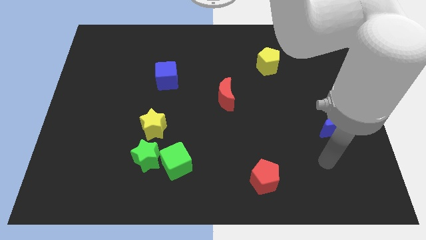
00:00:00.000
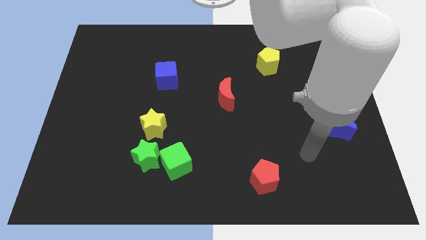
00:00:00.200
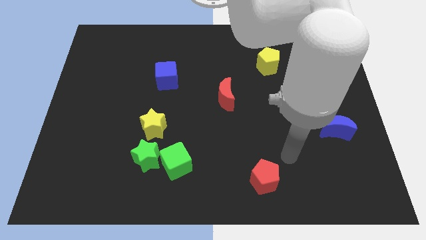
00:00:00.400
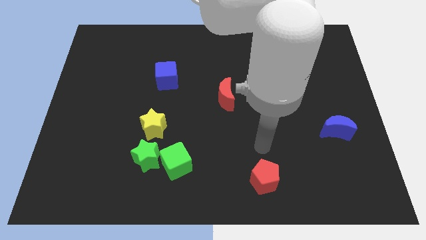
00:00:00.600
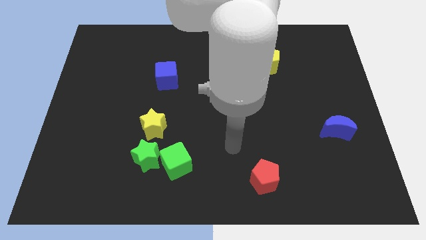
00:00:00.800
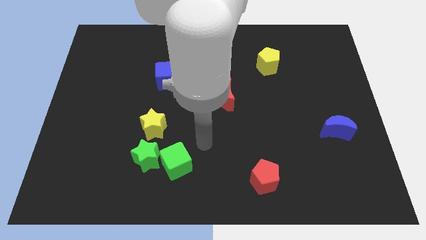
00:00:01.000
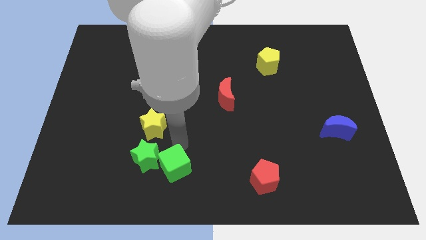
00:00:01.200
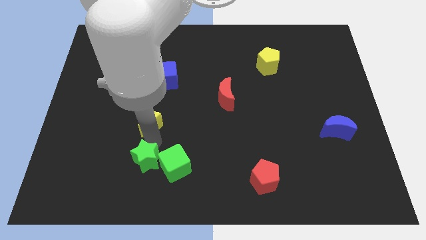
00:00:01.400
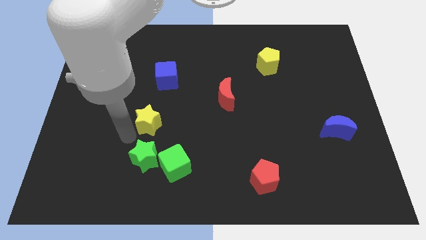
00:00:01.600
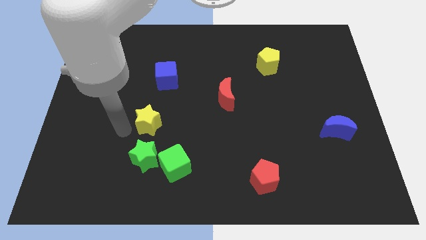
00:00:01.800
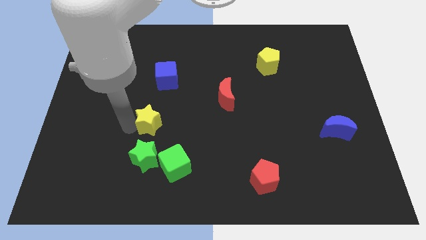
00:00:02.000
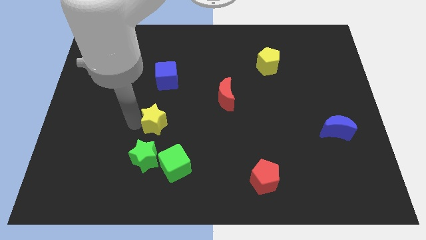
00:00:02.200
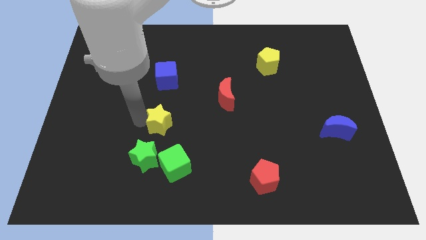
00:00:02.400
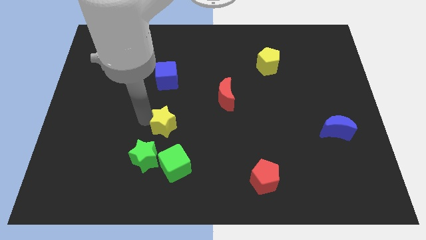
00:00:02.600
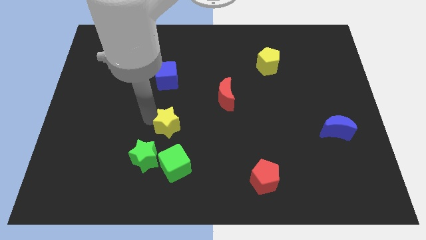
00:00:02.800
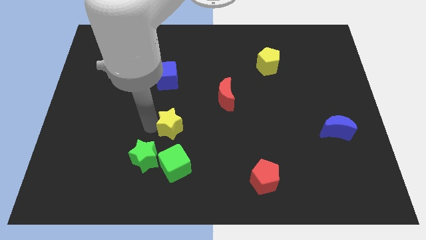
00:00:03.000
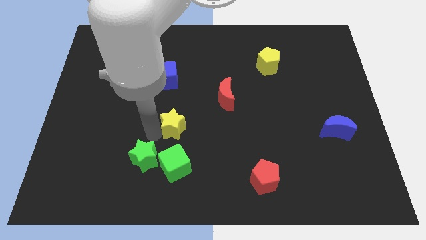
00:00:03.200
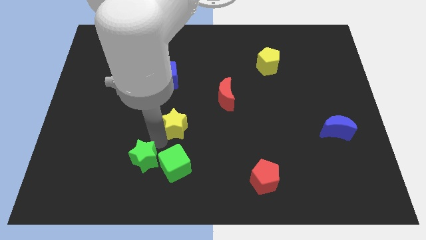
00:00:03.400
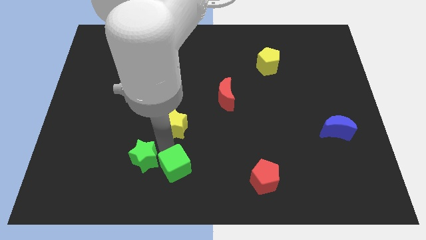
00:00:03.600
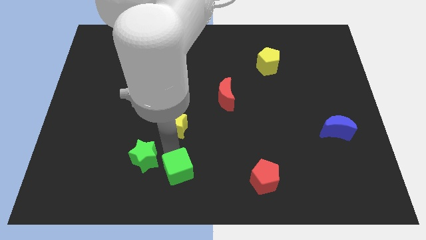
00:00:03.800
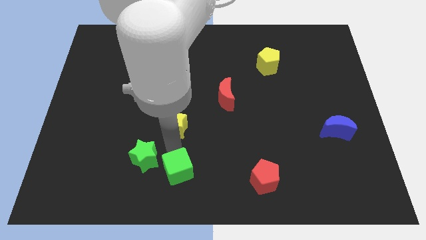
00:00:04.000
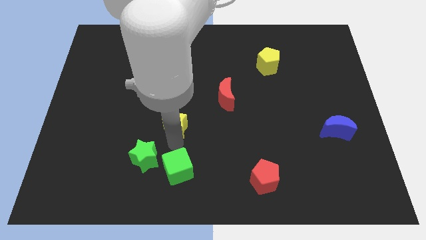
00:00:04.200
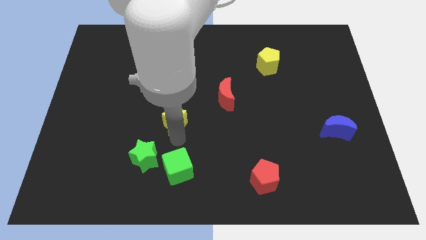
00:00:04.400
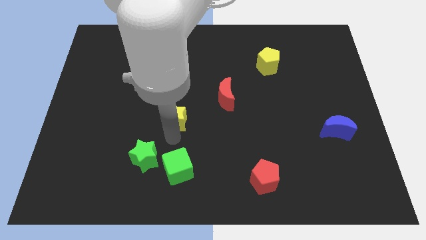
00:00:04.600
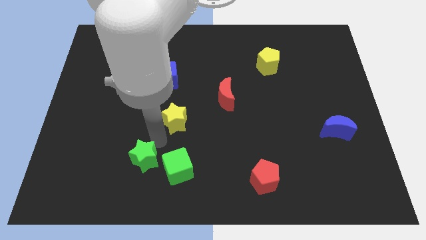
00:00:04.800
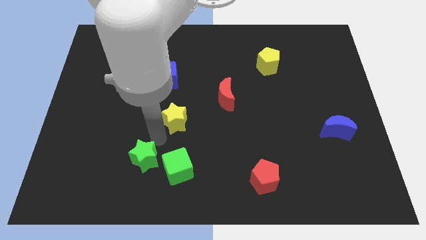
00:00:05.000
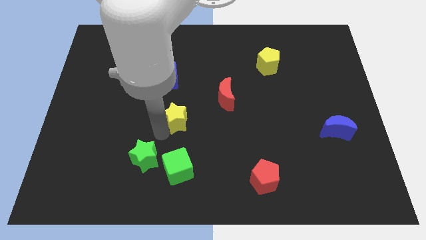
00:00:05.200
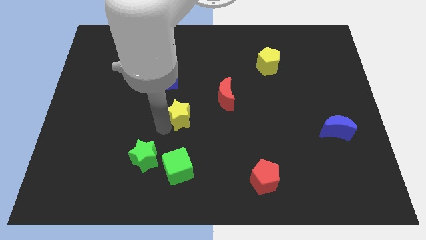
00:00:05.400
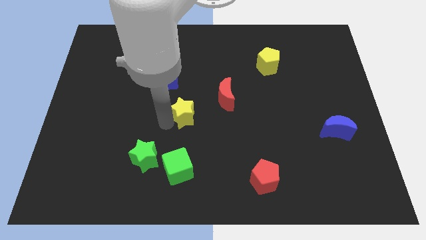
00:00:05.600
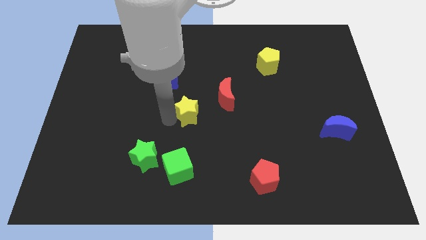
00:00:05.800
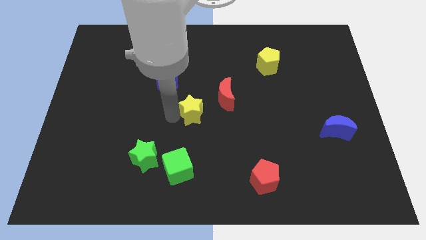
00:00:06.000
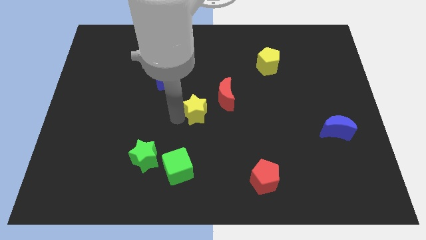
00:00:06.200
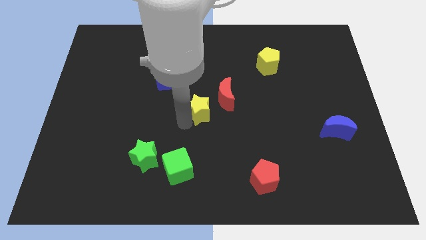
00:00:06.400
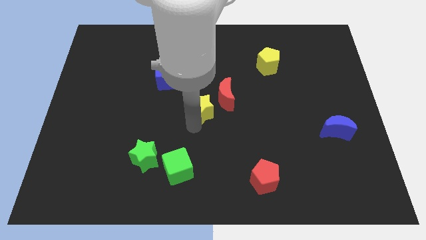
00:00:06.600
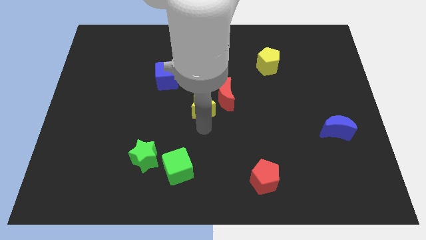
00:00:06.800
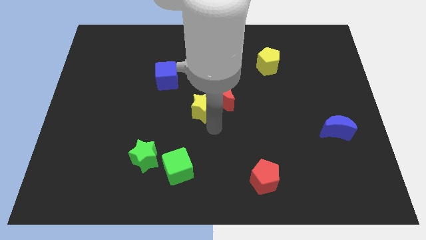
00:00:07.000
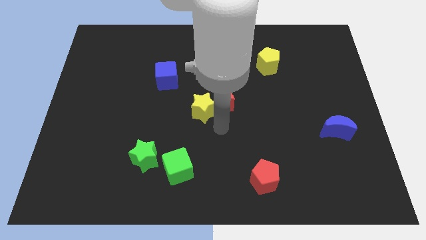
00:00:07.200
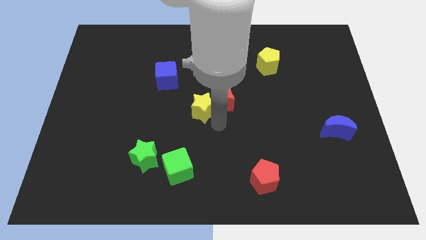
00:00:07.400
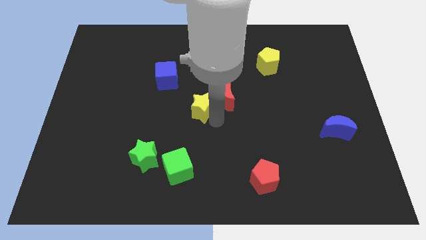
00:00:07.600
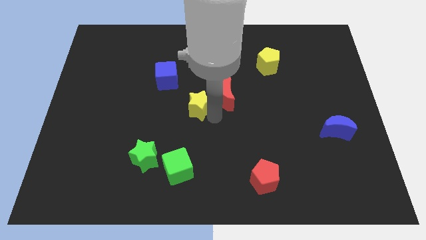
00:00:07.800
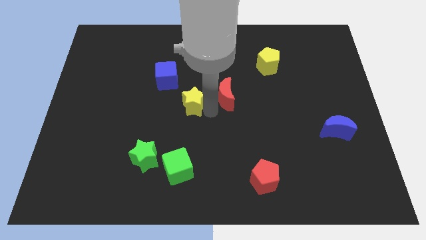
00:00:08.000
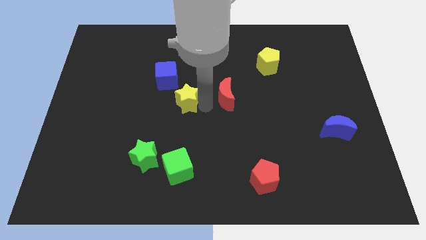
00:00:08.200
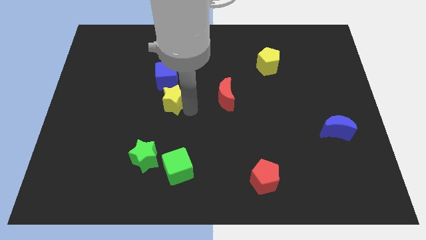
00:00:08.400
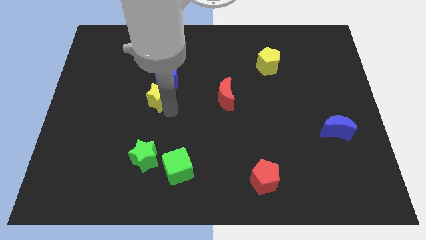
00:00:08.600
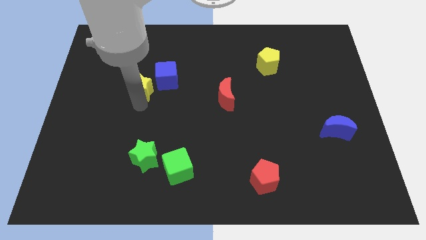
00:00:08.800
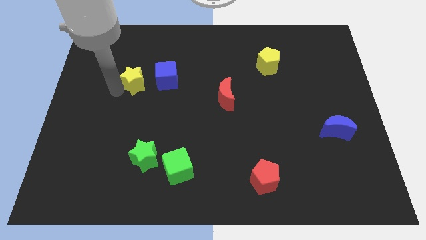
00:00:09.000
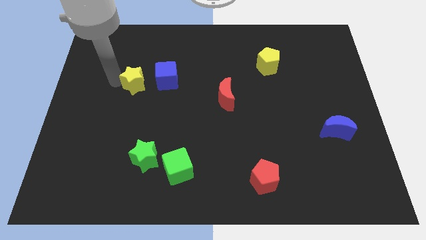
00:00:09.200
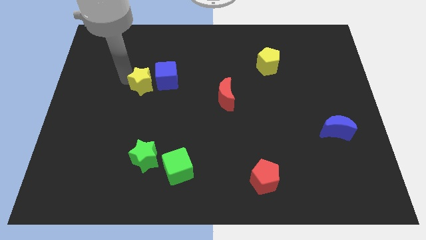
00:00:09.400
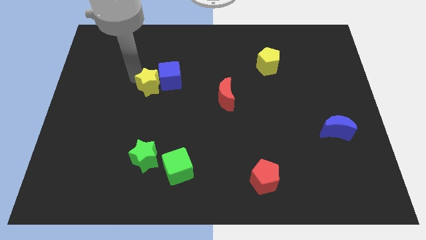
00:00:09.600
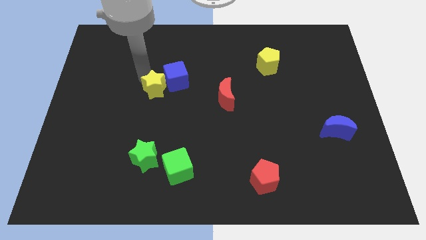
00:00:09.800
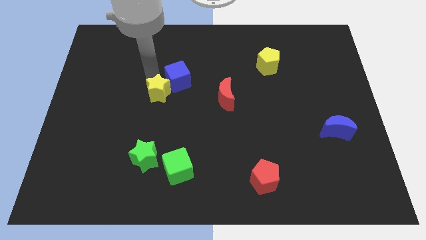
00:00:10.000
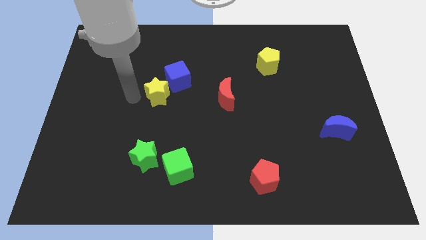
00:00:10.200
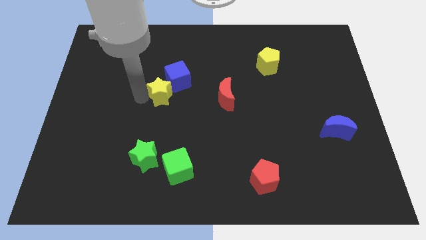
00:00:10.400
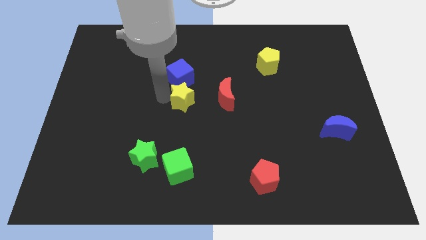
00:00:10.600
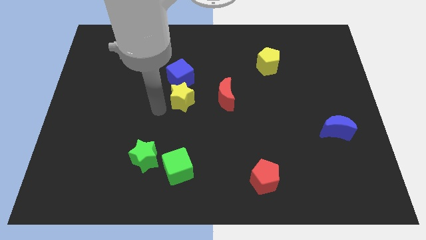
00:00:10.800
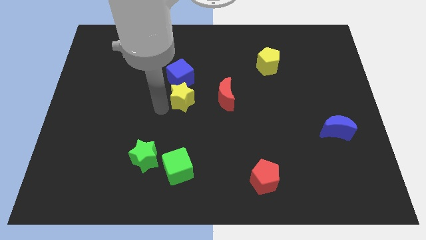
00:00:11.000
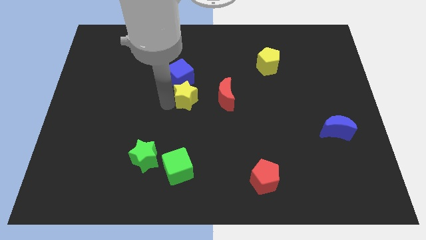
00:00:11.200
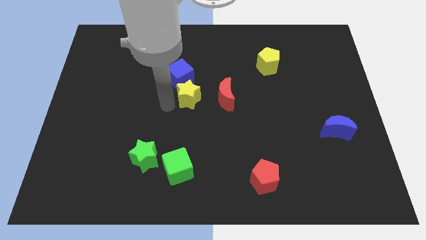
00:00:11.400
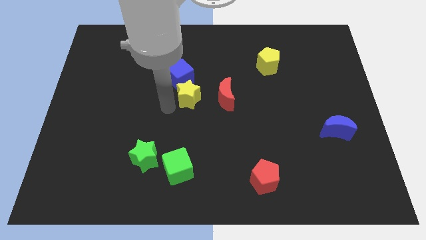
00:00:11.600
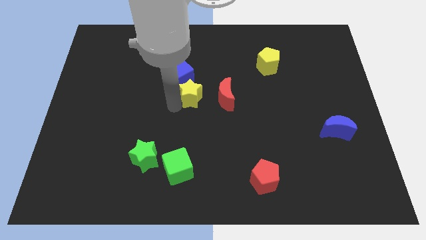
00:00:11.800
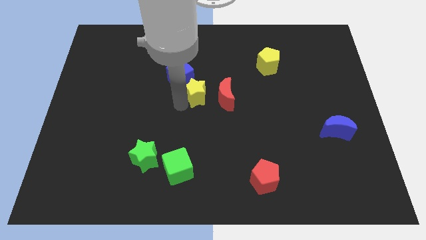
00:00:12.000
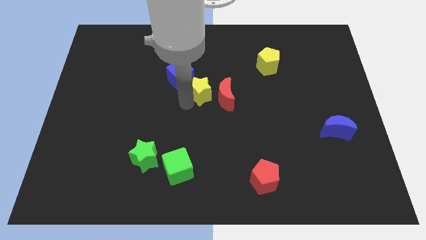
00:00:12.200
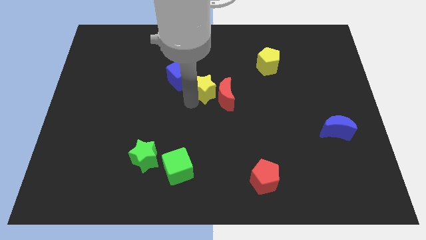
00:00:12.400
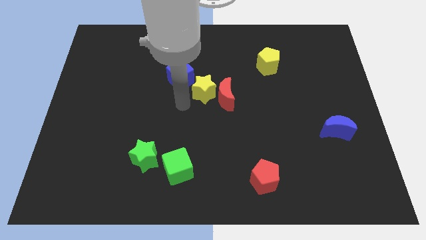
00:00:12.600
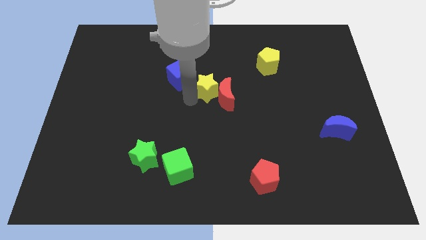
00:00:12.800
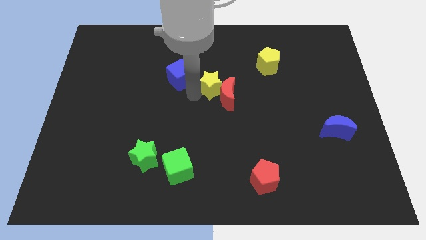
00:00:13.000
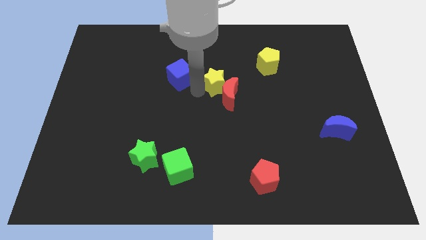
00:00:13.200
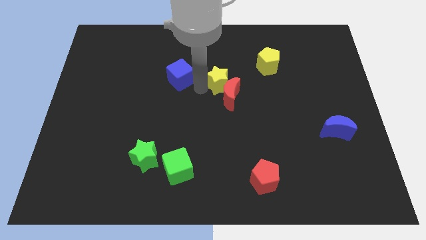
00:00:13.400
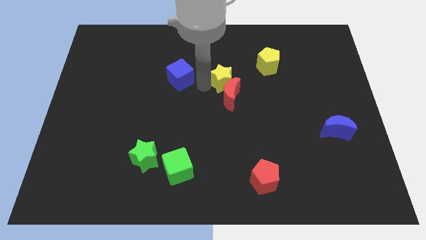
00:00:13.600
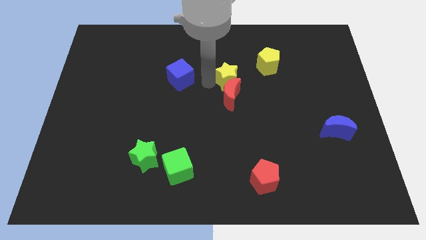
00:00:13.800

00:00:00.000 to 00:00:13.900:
push the yellow star diagonally down and to the left of the yellow pentagon

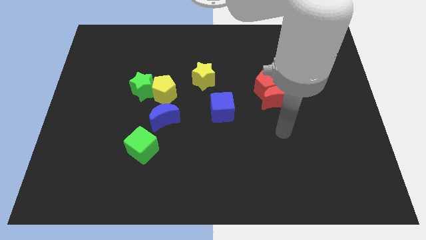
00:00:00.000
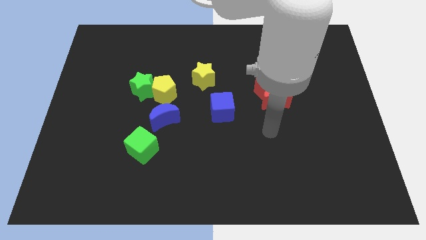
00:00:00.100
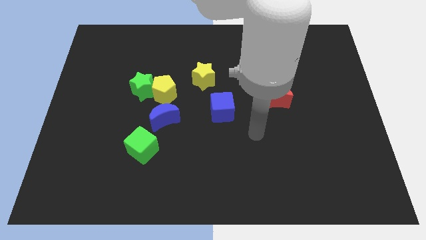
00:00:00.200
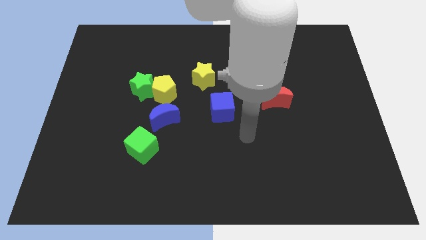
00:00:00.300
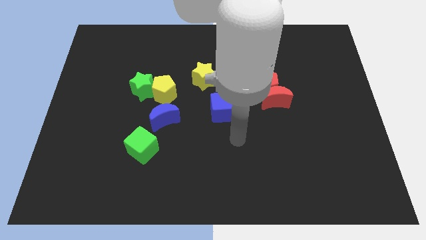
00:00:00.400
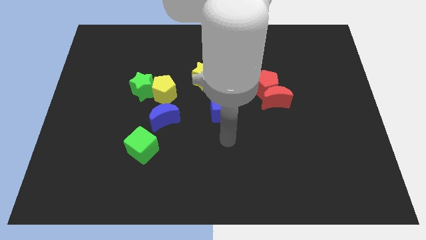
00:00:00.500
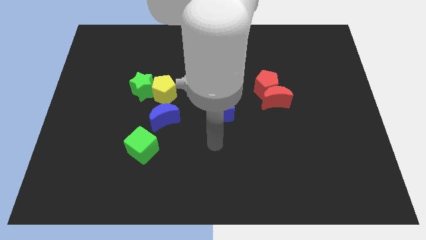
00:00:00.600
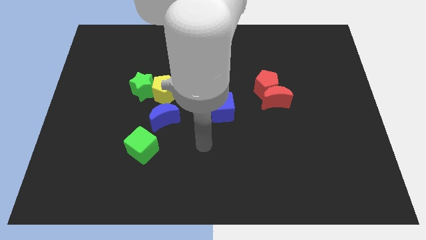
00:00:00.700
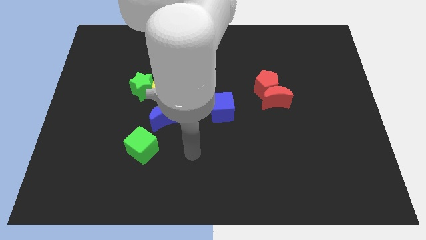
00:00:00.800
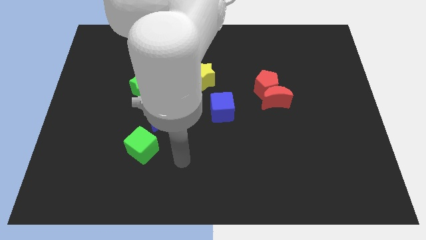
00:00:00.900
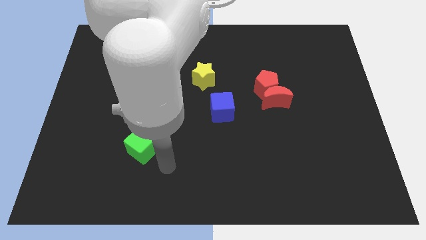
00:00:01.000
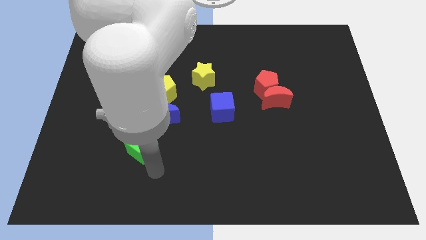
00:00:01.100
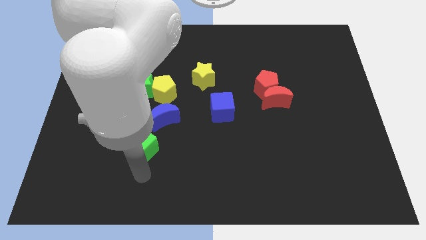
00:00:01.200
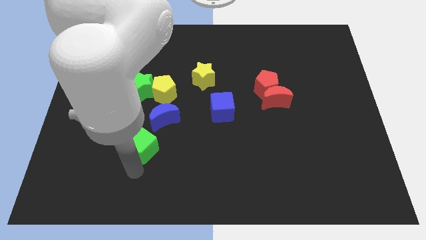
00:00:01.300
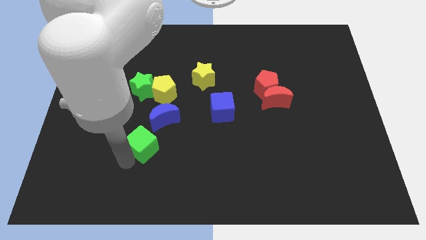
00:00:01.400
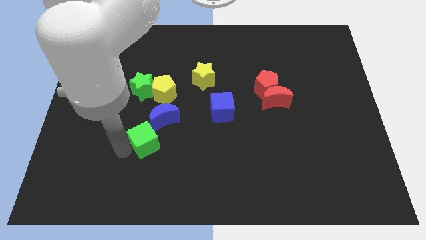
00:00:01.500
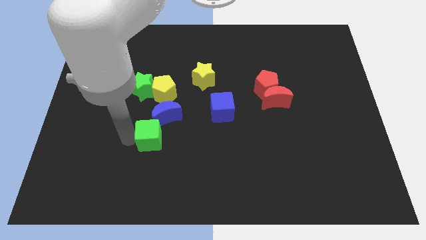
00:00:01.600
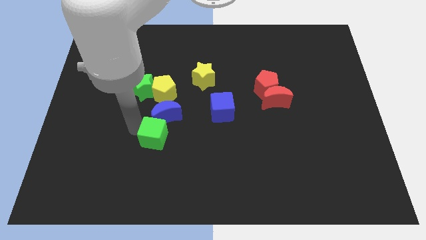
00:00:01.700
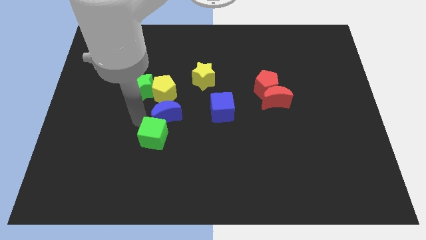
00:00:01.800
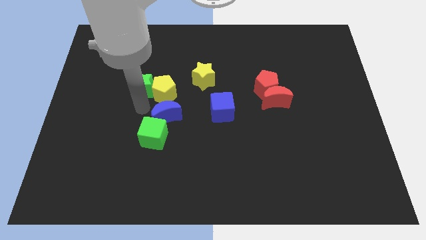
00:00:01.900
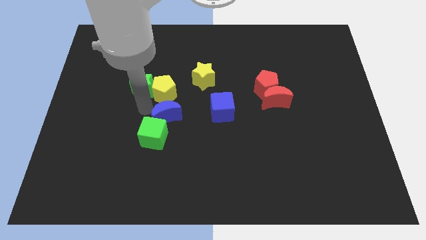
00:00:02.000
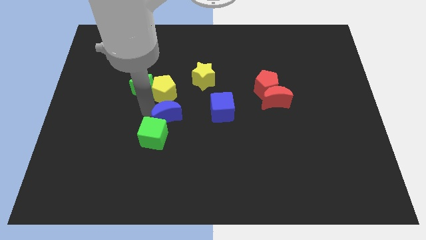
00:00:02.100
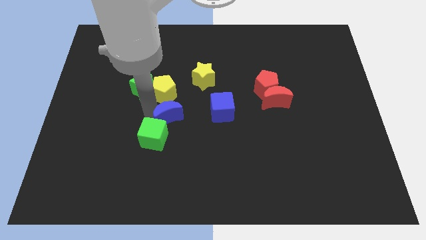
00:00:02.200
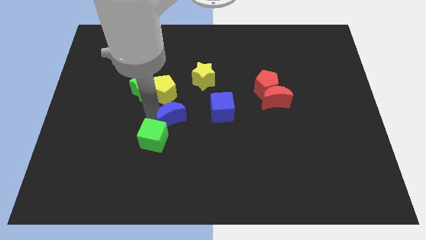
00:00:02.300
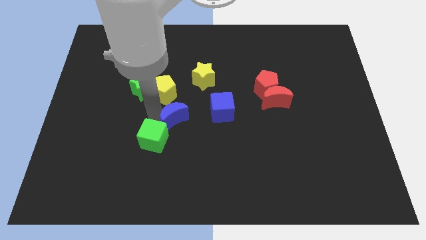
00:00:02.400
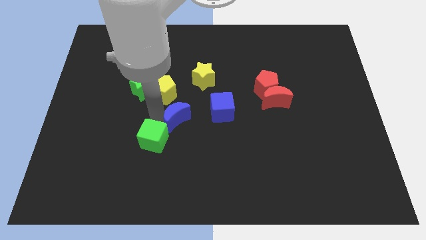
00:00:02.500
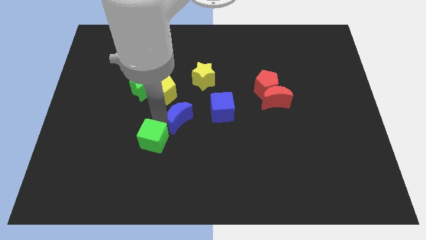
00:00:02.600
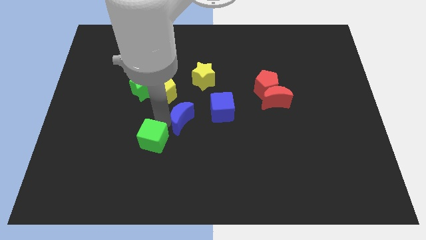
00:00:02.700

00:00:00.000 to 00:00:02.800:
push the blue moon to the bottom left of the blue cube
